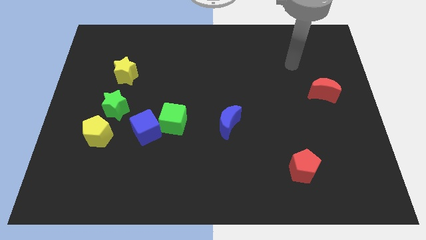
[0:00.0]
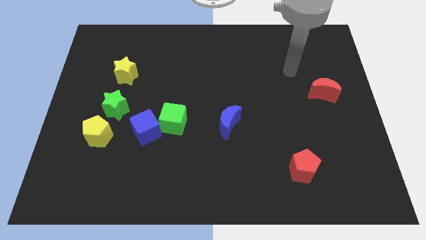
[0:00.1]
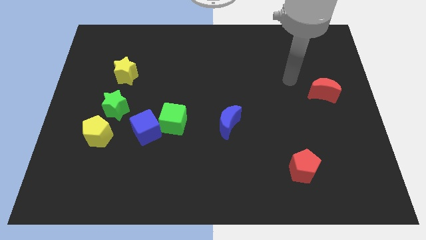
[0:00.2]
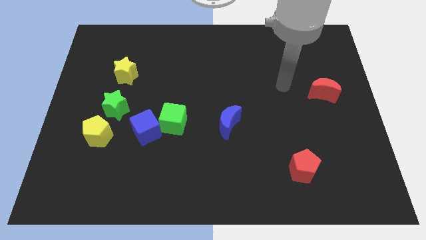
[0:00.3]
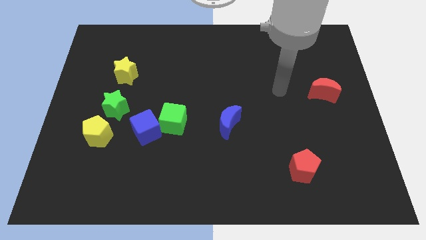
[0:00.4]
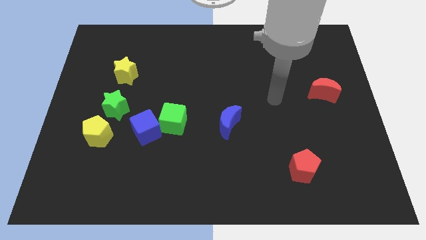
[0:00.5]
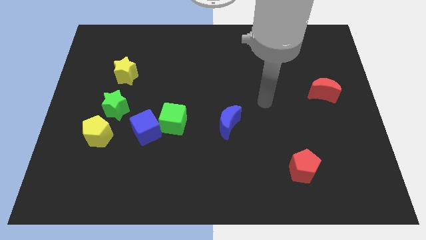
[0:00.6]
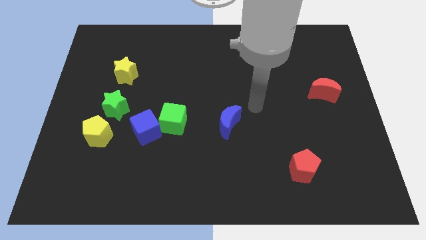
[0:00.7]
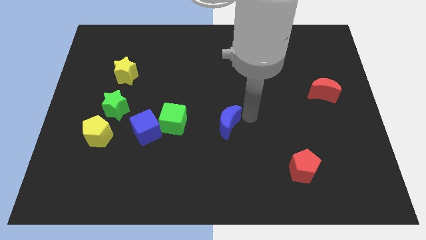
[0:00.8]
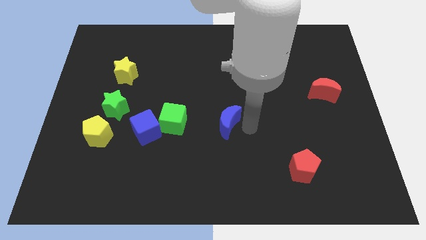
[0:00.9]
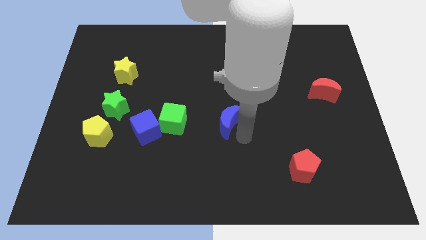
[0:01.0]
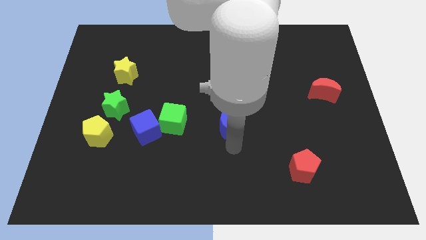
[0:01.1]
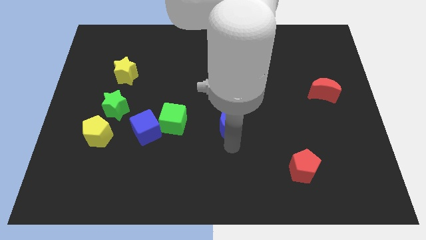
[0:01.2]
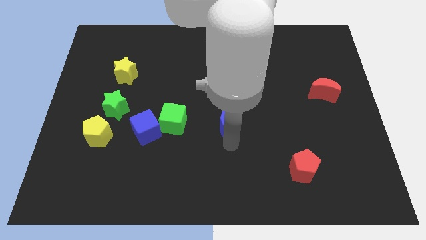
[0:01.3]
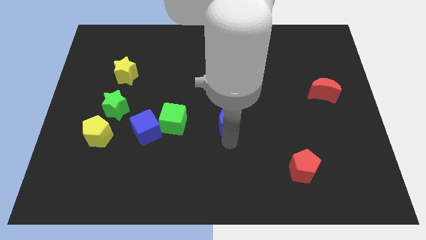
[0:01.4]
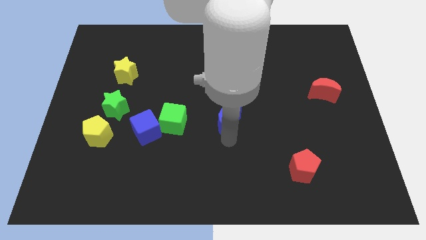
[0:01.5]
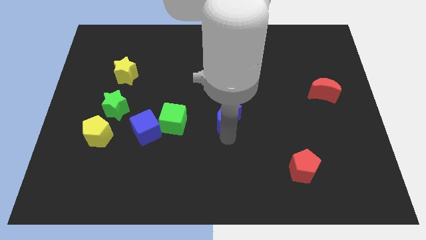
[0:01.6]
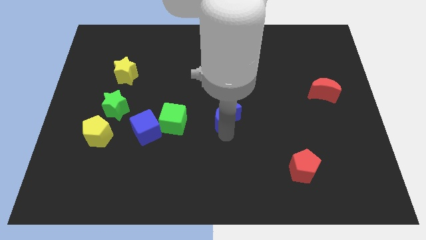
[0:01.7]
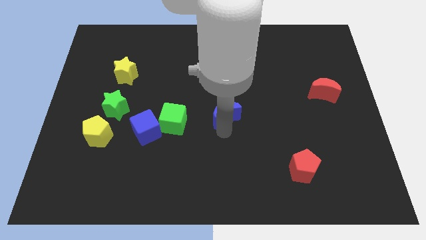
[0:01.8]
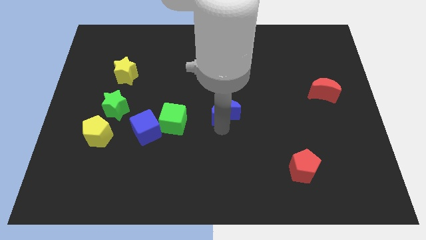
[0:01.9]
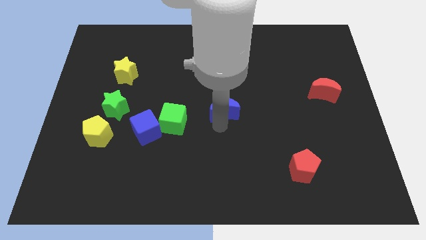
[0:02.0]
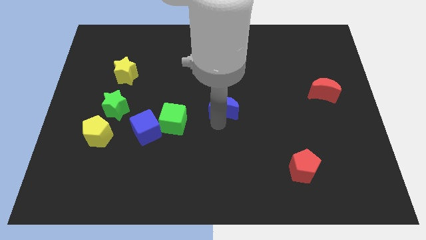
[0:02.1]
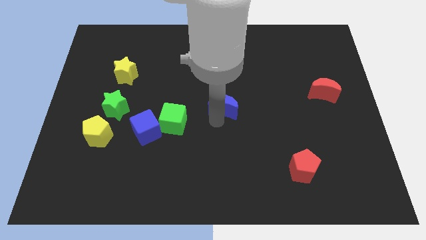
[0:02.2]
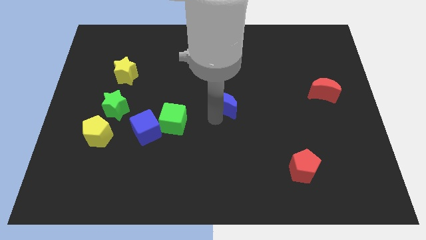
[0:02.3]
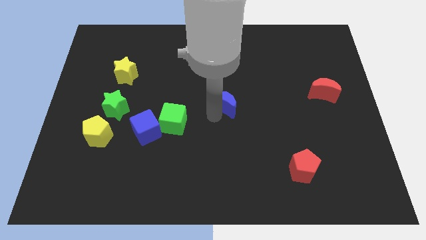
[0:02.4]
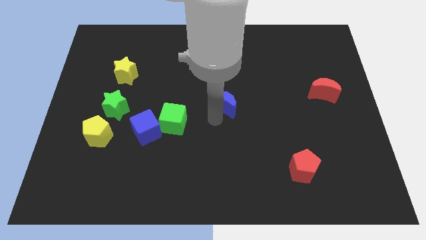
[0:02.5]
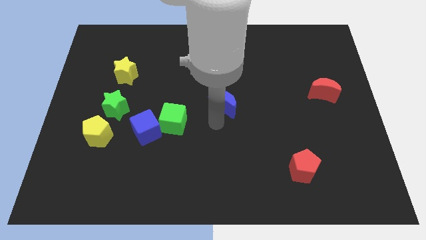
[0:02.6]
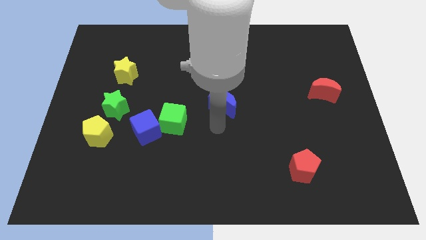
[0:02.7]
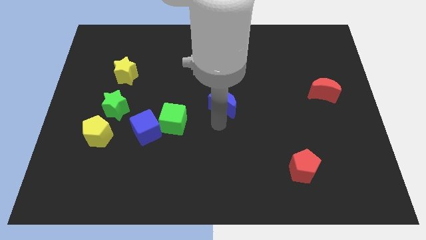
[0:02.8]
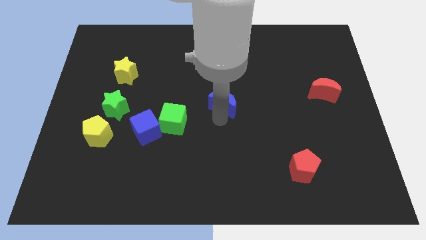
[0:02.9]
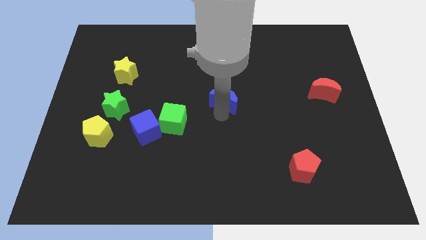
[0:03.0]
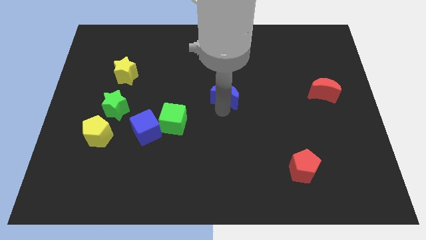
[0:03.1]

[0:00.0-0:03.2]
push the blue moon somewhat upwards

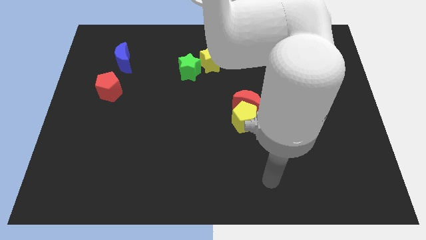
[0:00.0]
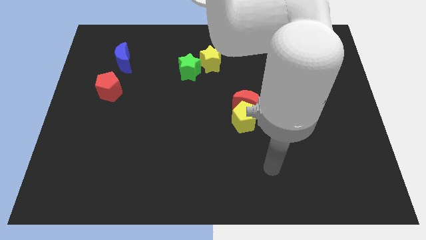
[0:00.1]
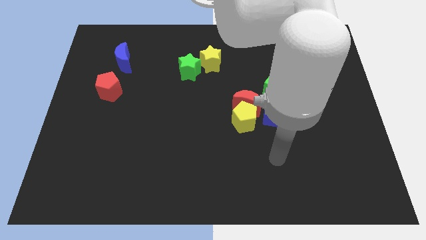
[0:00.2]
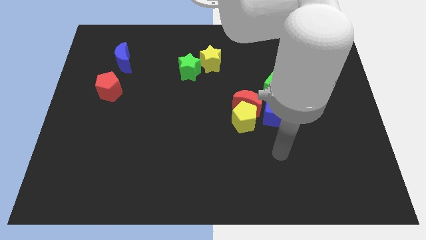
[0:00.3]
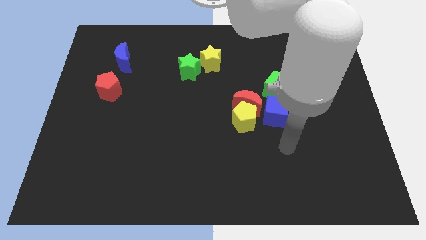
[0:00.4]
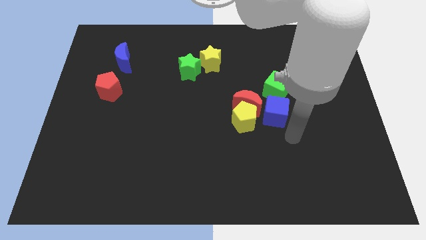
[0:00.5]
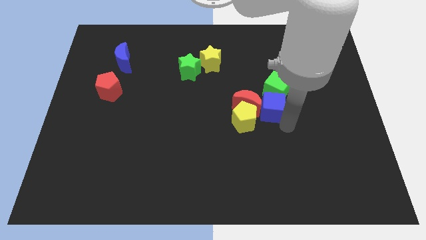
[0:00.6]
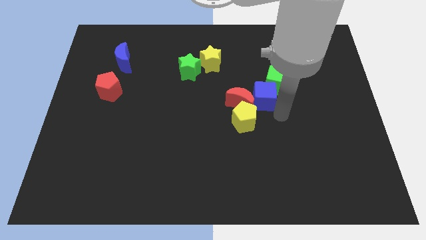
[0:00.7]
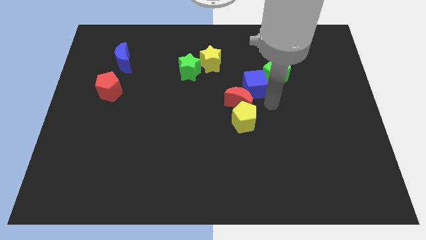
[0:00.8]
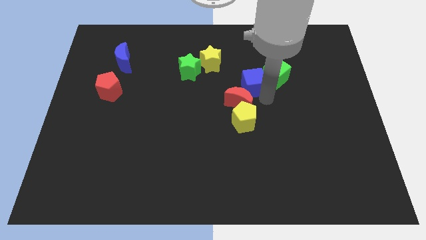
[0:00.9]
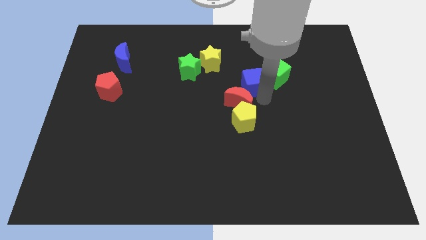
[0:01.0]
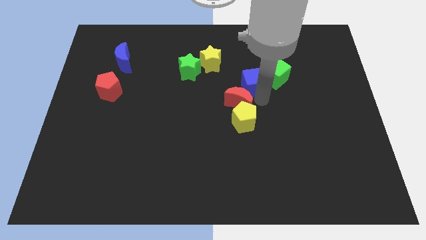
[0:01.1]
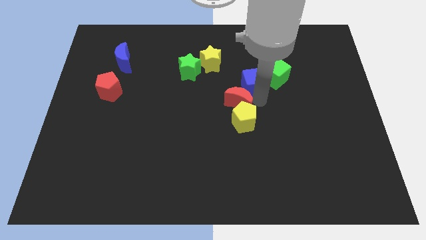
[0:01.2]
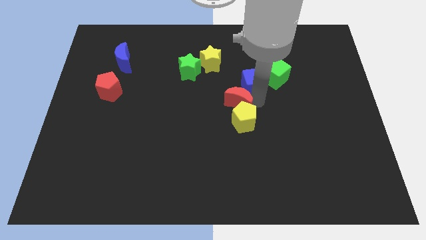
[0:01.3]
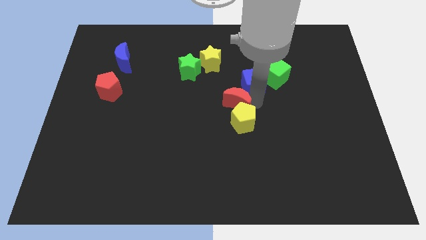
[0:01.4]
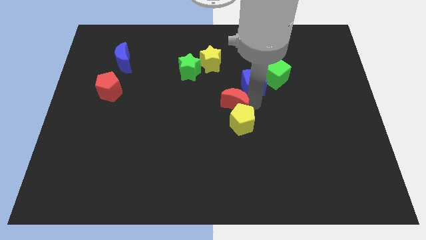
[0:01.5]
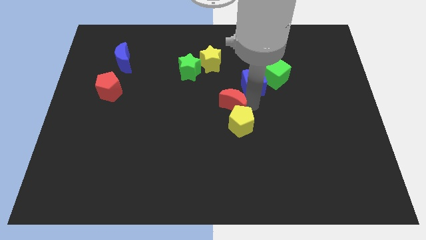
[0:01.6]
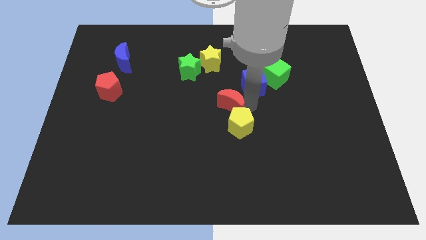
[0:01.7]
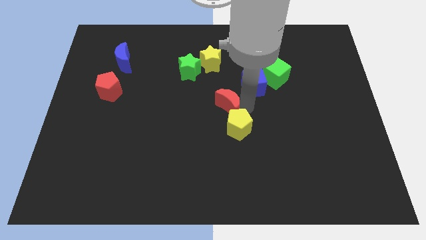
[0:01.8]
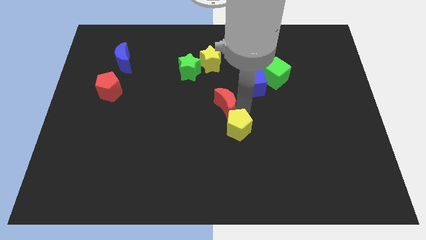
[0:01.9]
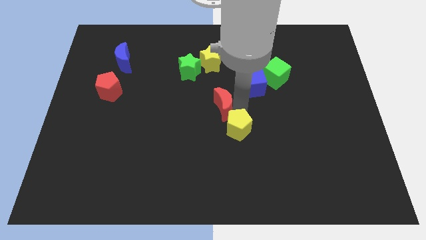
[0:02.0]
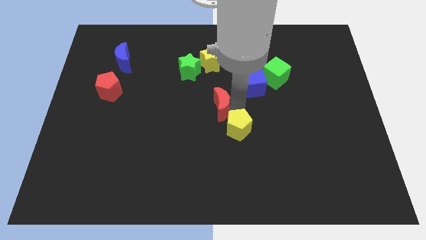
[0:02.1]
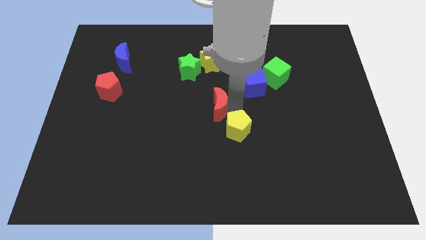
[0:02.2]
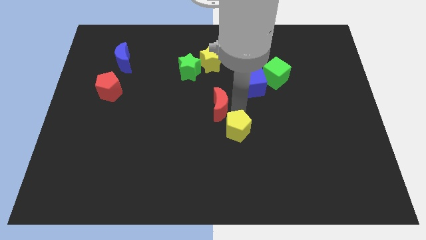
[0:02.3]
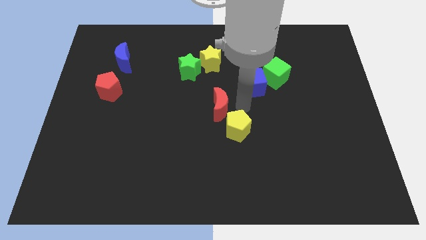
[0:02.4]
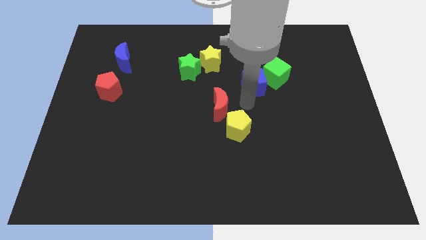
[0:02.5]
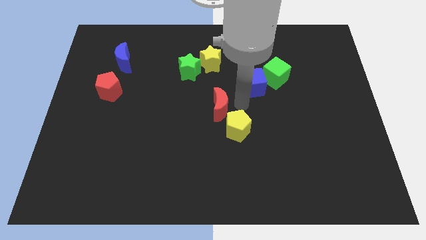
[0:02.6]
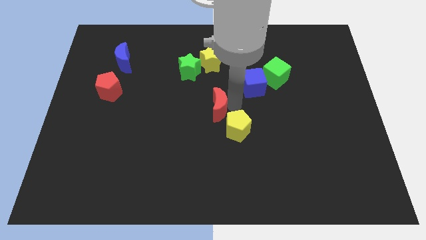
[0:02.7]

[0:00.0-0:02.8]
slide the red moon left a bit

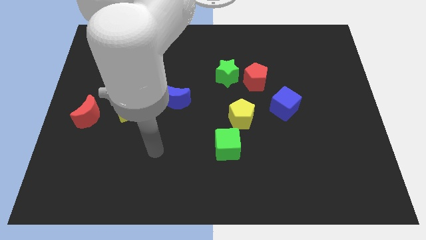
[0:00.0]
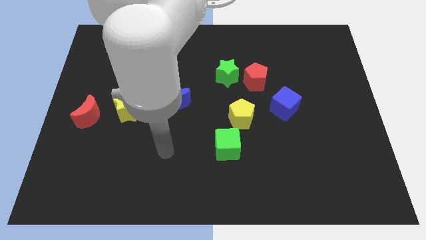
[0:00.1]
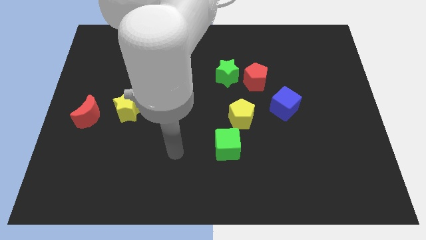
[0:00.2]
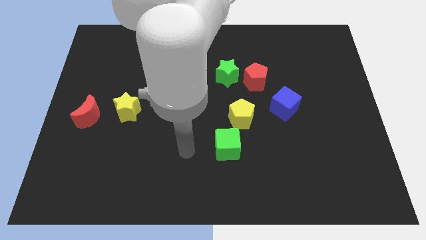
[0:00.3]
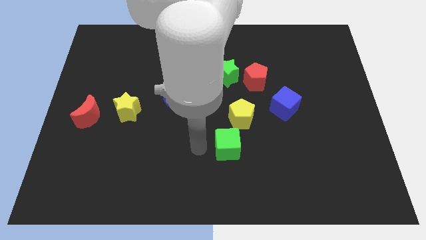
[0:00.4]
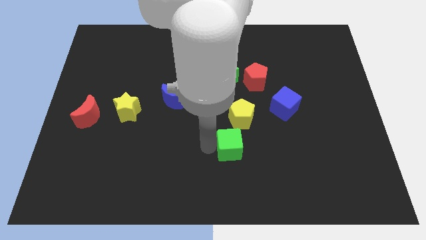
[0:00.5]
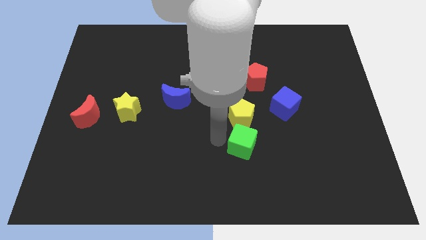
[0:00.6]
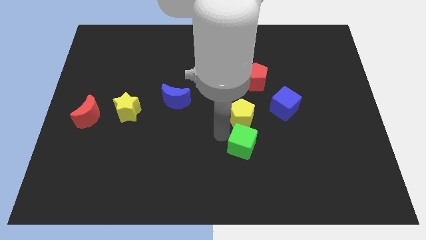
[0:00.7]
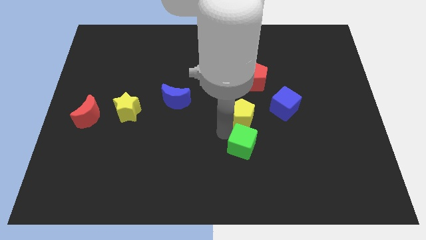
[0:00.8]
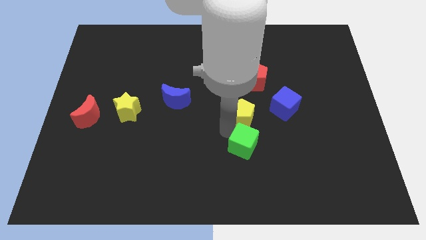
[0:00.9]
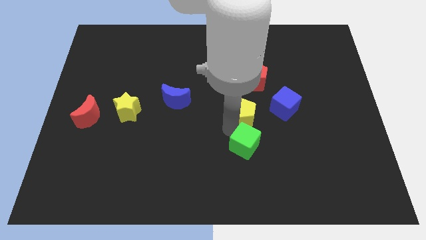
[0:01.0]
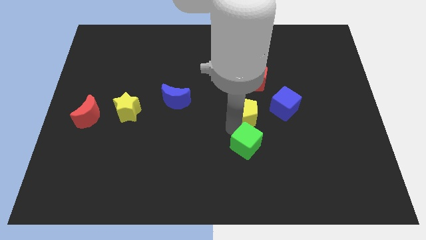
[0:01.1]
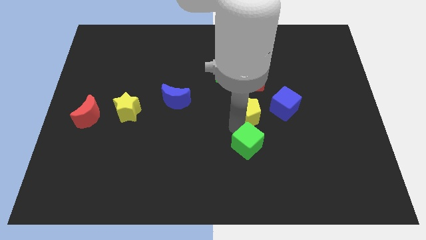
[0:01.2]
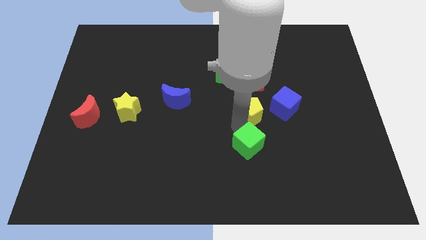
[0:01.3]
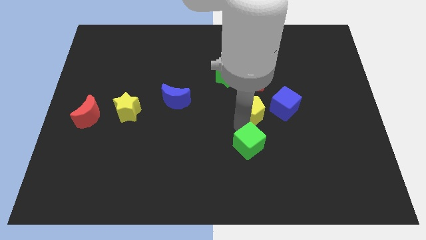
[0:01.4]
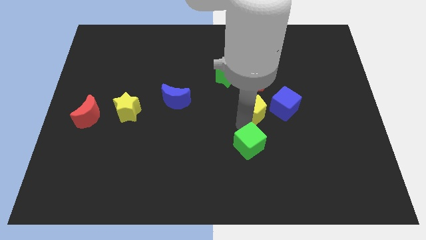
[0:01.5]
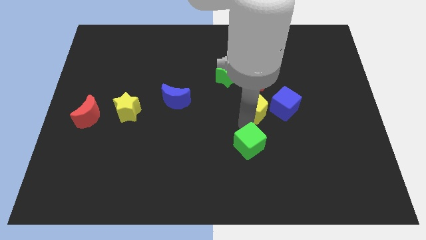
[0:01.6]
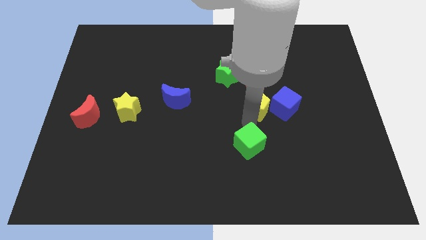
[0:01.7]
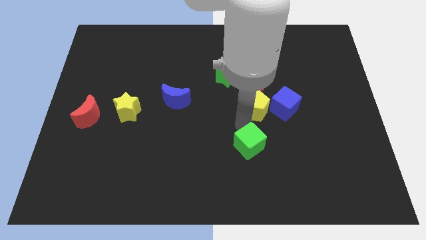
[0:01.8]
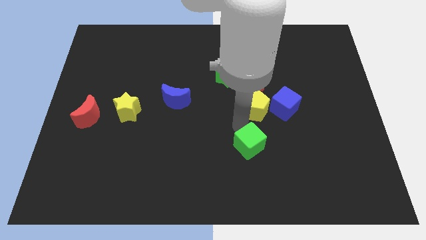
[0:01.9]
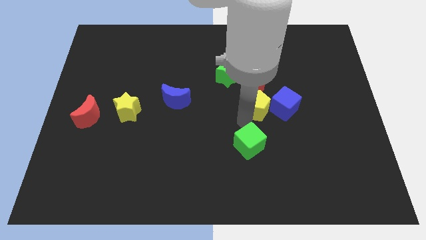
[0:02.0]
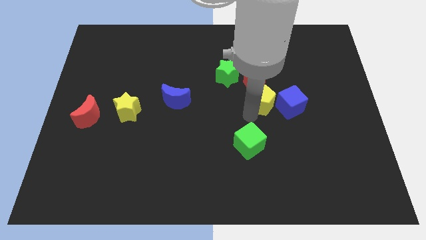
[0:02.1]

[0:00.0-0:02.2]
slightly slide the yellow pentagon diagonally upwards and right

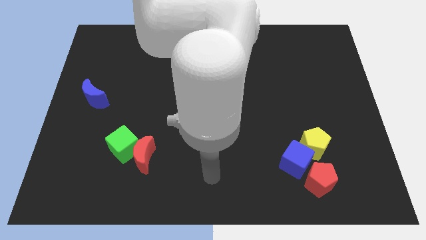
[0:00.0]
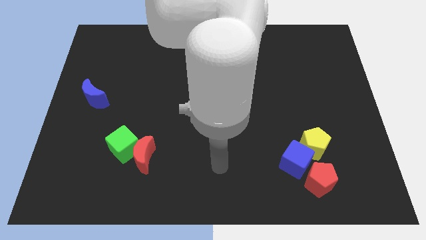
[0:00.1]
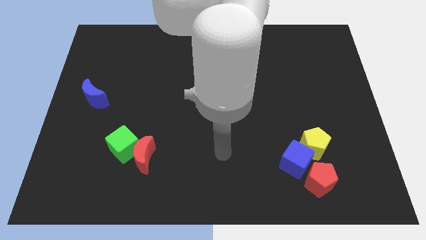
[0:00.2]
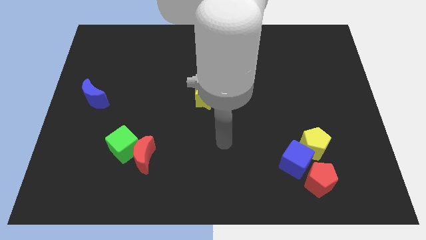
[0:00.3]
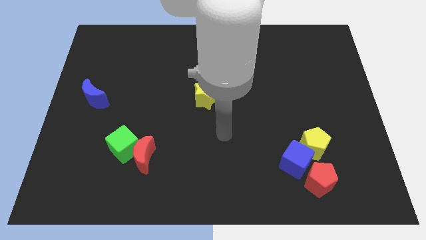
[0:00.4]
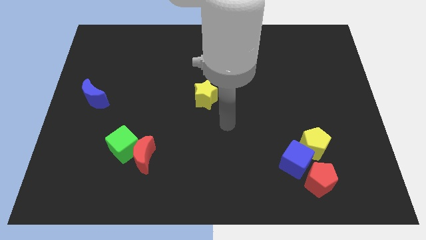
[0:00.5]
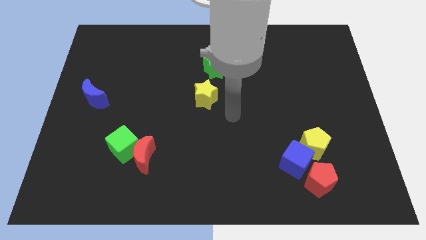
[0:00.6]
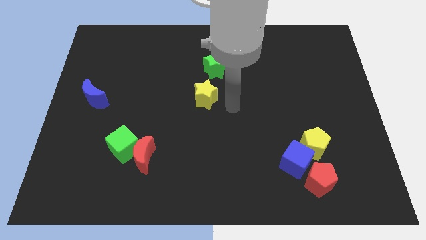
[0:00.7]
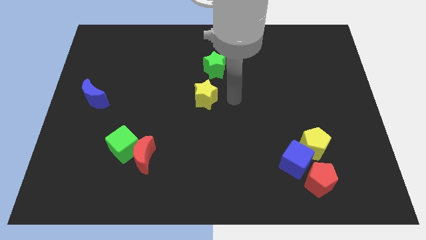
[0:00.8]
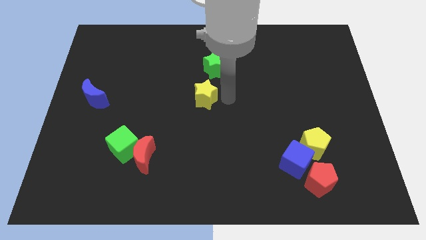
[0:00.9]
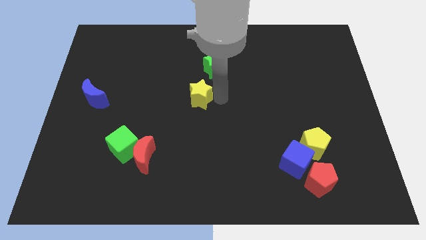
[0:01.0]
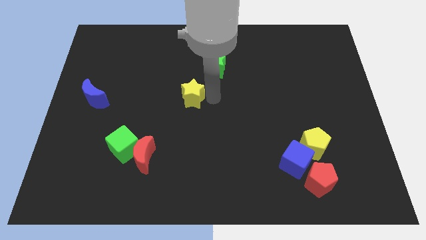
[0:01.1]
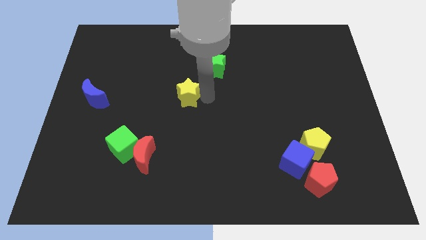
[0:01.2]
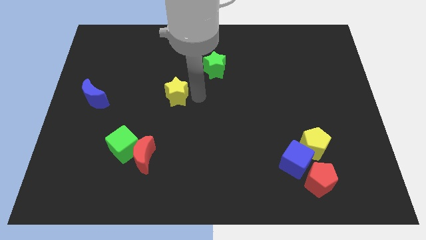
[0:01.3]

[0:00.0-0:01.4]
slide the yellow star left a bit
